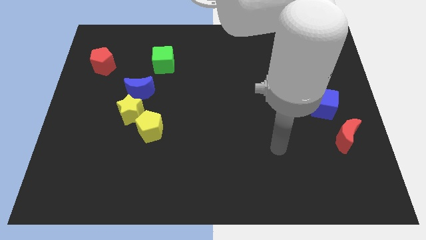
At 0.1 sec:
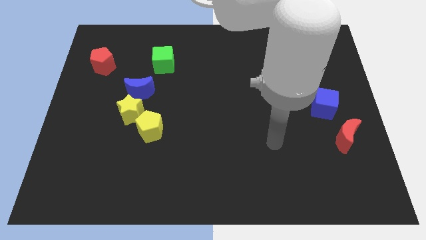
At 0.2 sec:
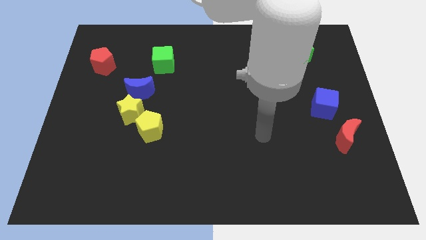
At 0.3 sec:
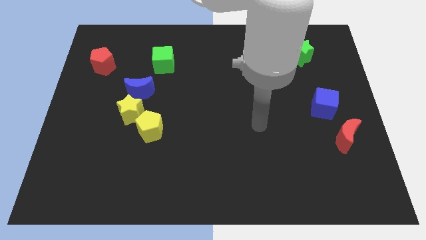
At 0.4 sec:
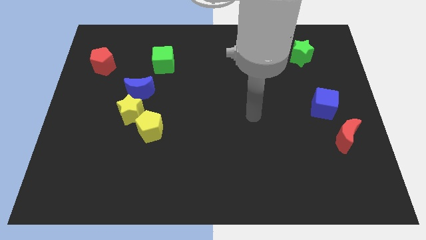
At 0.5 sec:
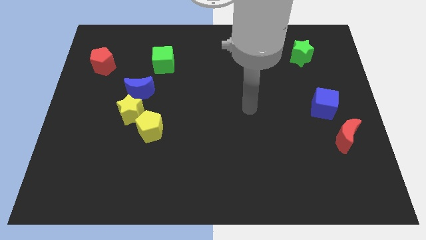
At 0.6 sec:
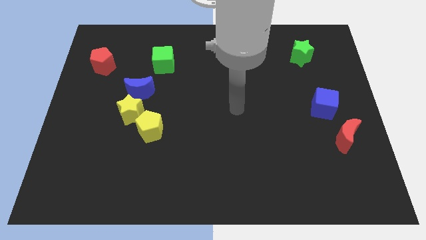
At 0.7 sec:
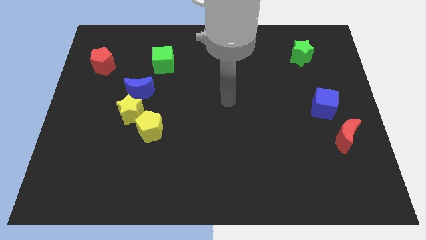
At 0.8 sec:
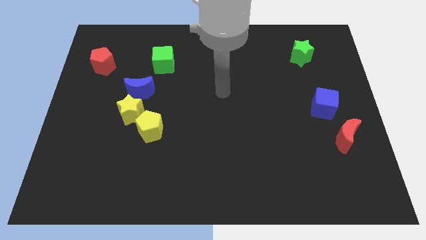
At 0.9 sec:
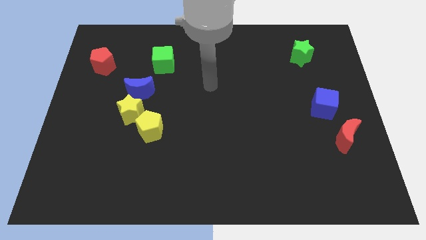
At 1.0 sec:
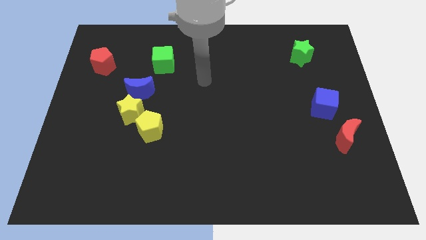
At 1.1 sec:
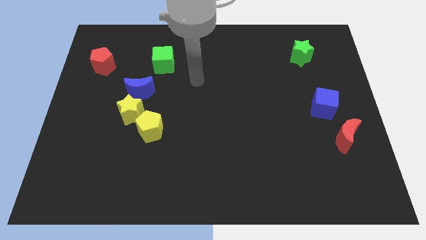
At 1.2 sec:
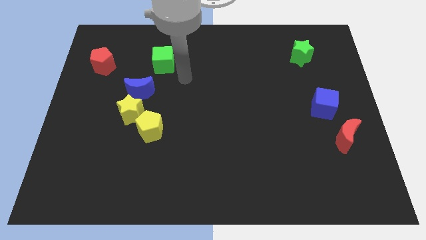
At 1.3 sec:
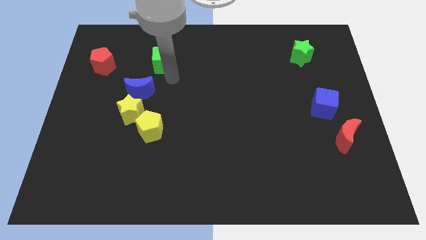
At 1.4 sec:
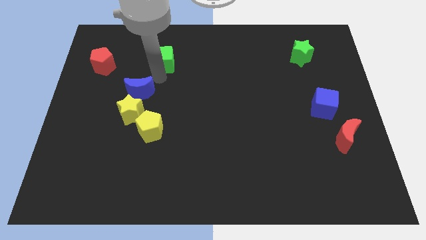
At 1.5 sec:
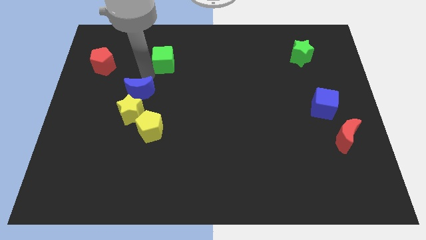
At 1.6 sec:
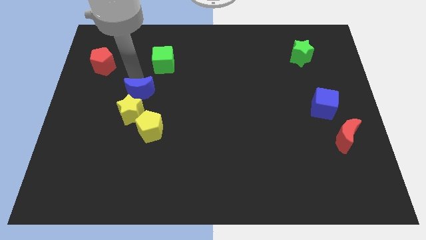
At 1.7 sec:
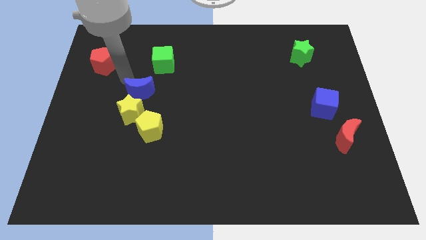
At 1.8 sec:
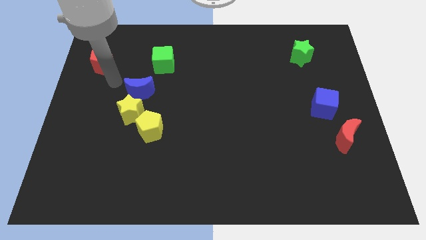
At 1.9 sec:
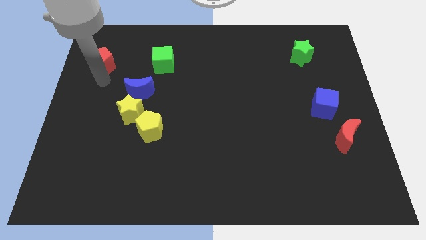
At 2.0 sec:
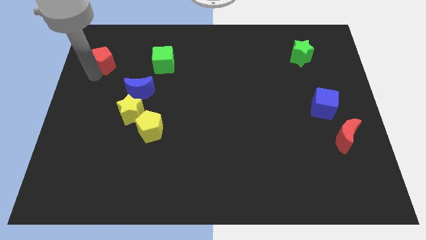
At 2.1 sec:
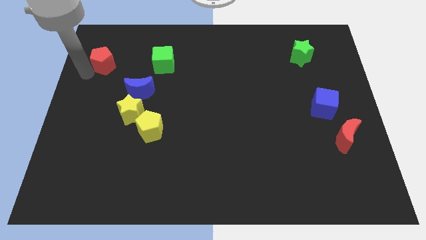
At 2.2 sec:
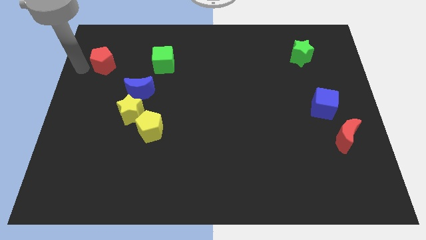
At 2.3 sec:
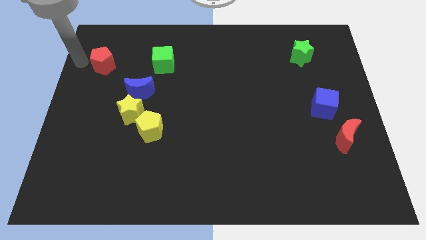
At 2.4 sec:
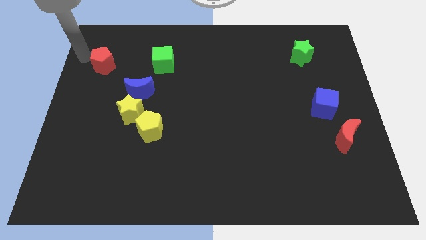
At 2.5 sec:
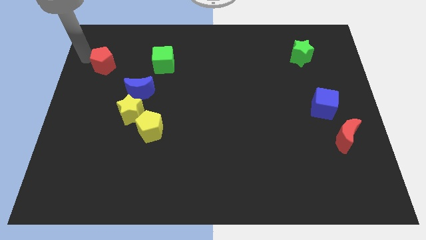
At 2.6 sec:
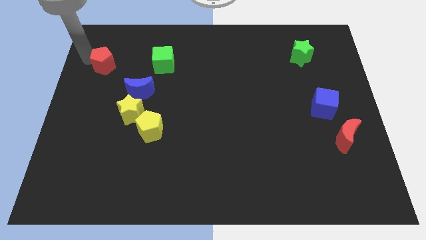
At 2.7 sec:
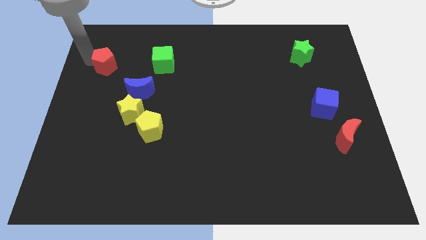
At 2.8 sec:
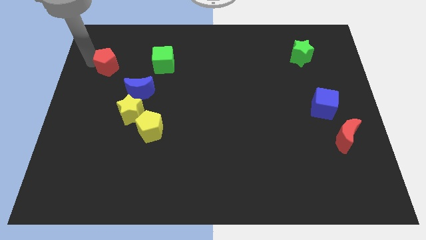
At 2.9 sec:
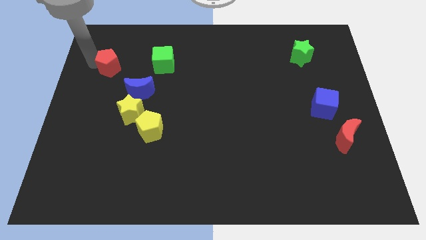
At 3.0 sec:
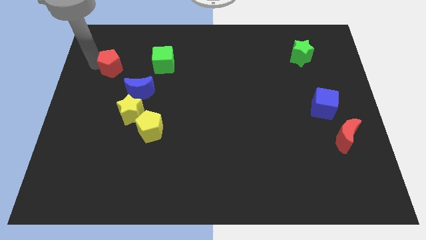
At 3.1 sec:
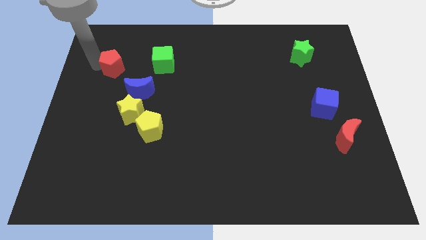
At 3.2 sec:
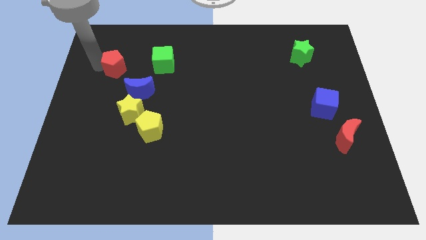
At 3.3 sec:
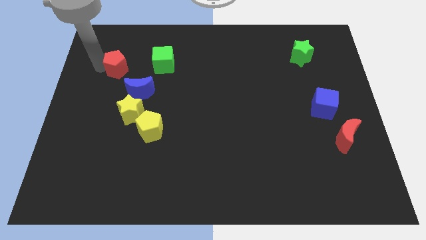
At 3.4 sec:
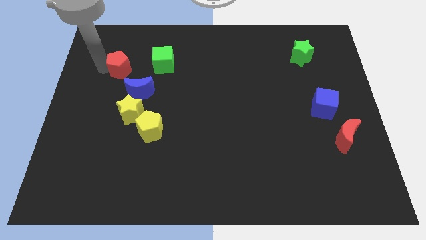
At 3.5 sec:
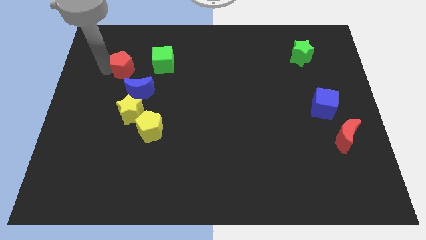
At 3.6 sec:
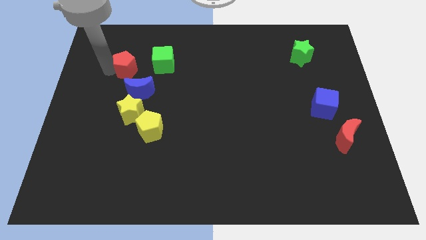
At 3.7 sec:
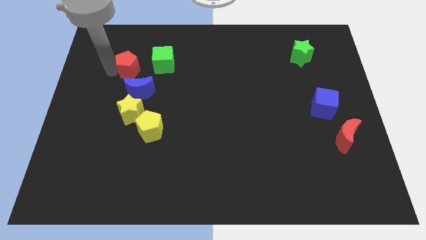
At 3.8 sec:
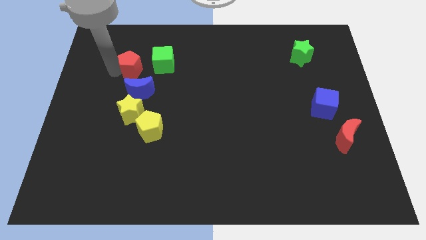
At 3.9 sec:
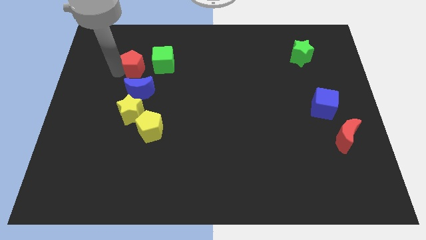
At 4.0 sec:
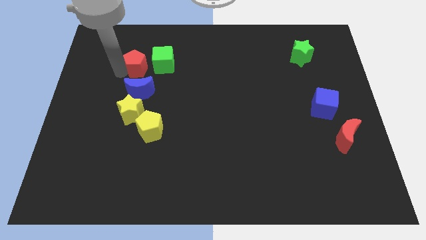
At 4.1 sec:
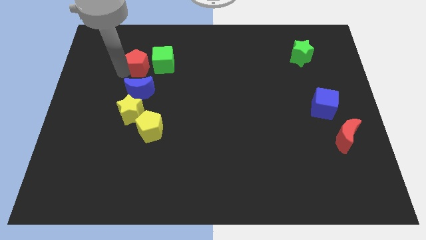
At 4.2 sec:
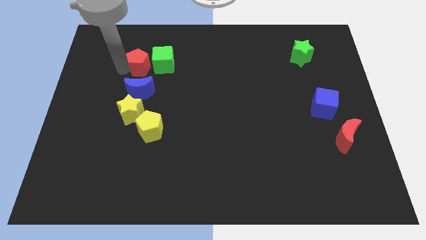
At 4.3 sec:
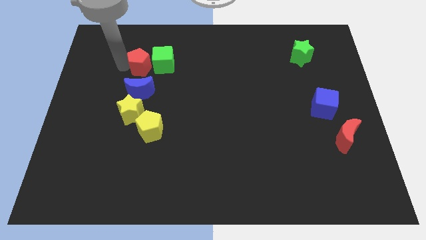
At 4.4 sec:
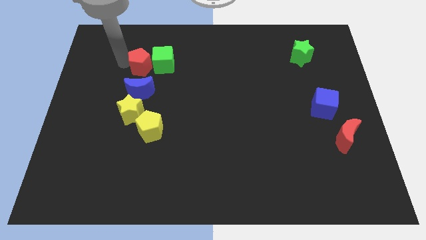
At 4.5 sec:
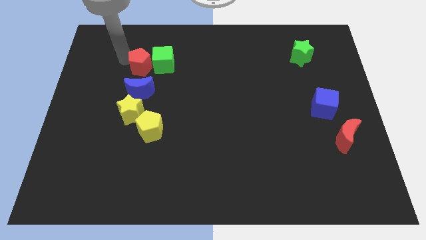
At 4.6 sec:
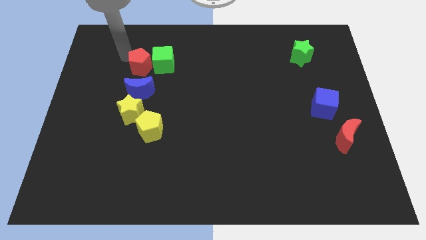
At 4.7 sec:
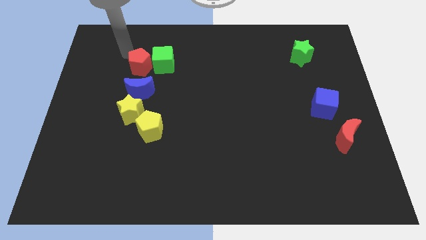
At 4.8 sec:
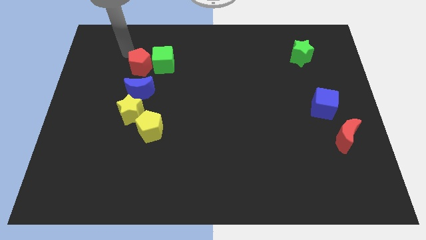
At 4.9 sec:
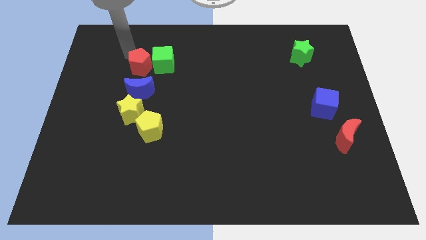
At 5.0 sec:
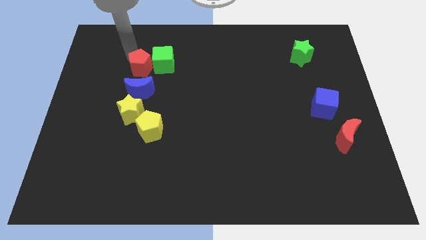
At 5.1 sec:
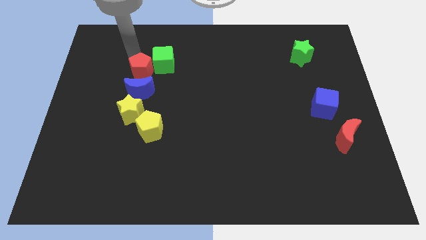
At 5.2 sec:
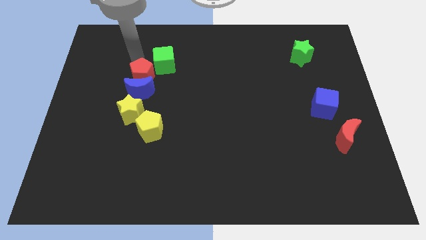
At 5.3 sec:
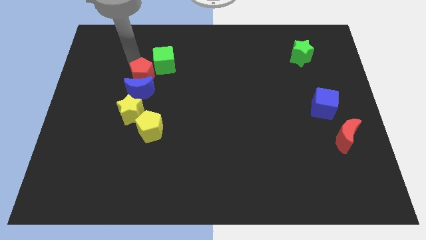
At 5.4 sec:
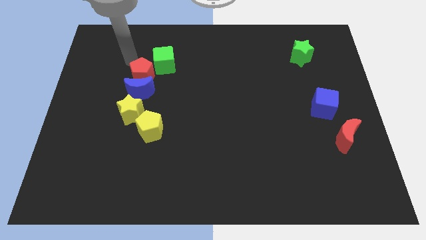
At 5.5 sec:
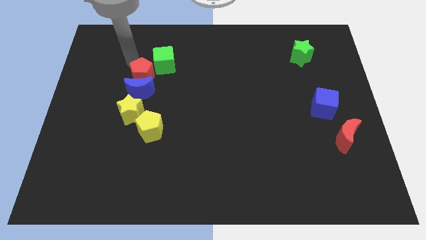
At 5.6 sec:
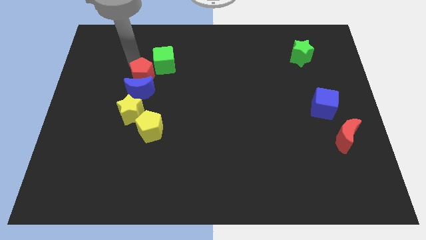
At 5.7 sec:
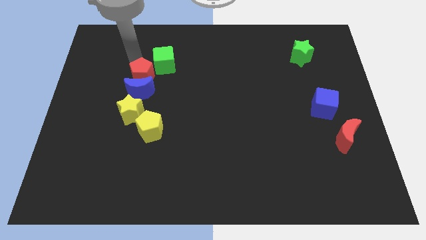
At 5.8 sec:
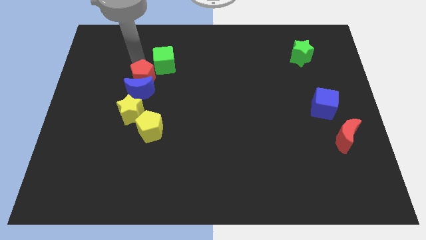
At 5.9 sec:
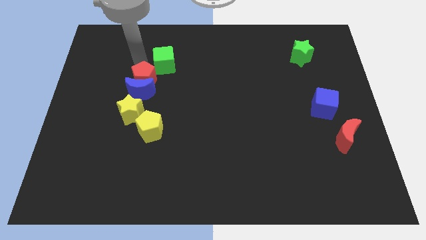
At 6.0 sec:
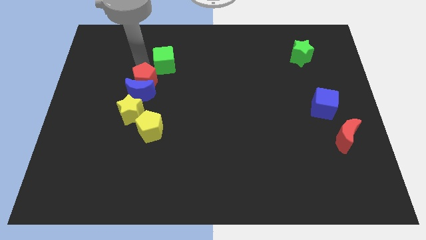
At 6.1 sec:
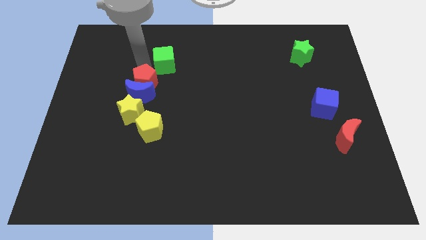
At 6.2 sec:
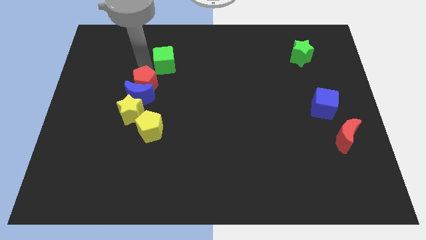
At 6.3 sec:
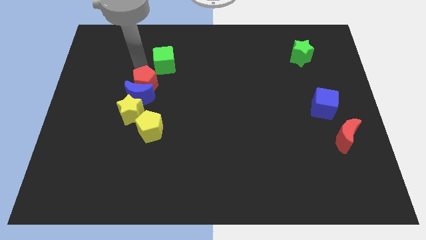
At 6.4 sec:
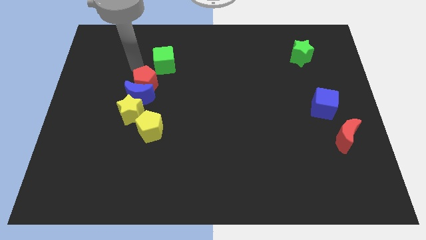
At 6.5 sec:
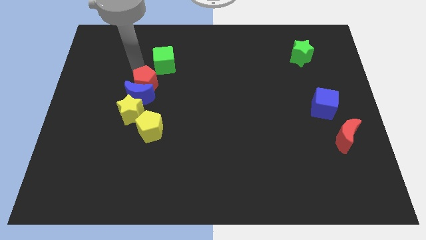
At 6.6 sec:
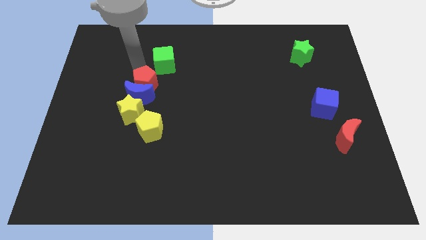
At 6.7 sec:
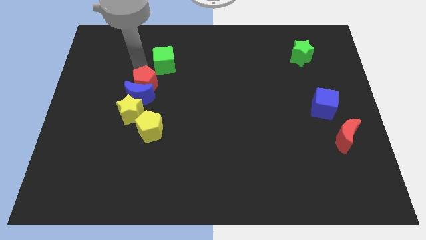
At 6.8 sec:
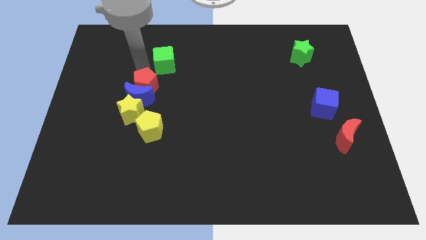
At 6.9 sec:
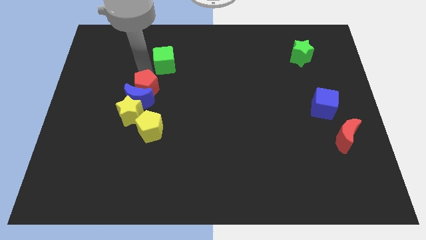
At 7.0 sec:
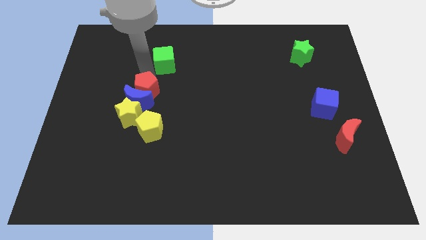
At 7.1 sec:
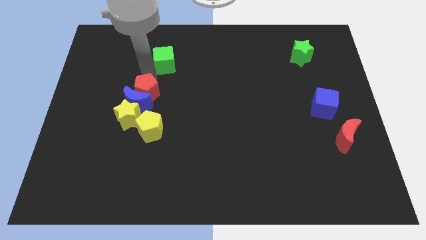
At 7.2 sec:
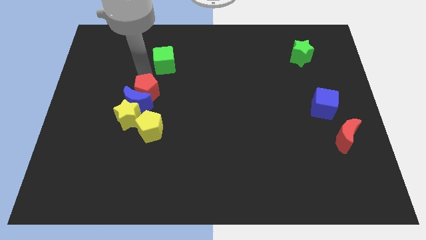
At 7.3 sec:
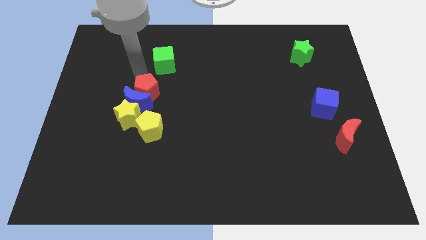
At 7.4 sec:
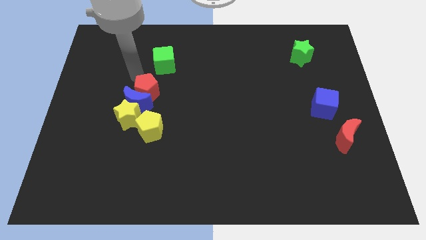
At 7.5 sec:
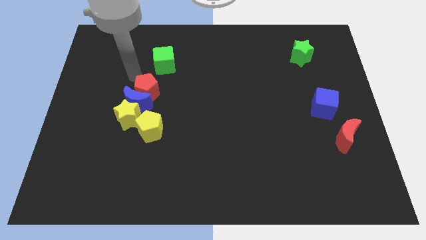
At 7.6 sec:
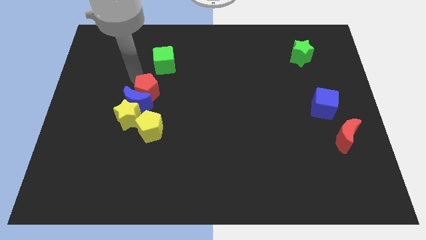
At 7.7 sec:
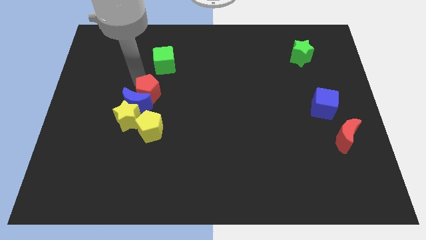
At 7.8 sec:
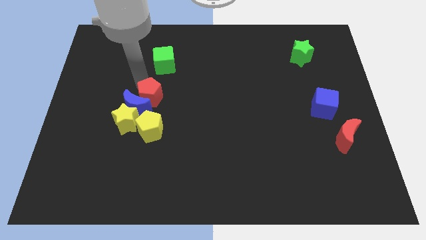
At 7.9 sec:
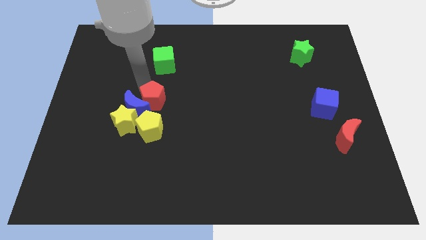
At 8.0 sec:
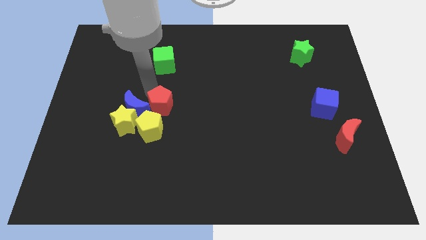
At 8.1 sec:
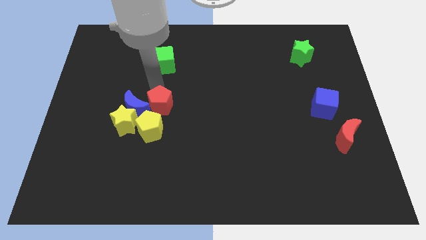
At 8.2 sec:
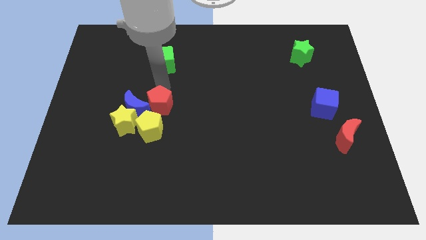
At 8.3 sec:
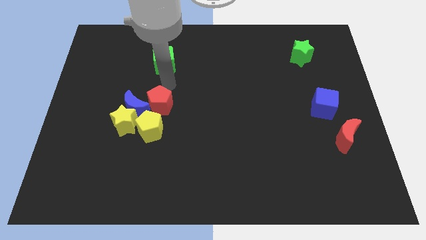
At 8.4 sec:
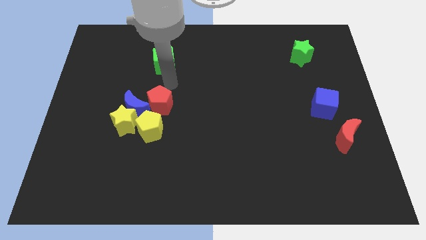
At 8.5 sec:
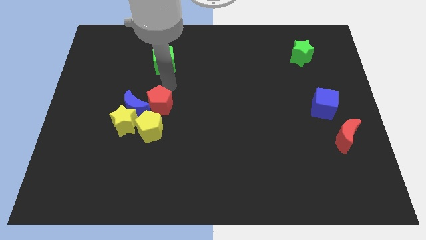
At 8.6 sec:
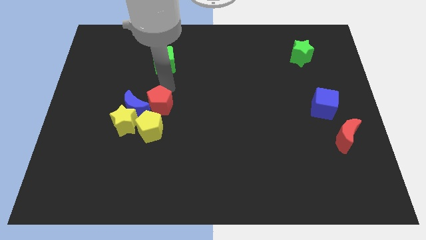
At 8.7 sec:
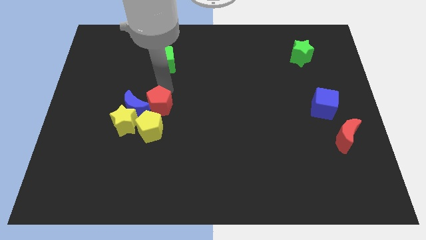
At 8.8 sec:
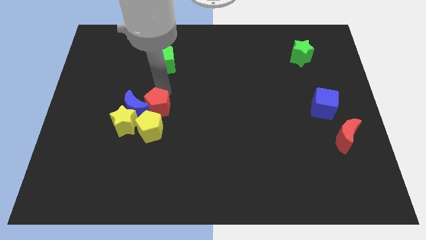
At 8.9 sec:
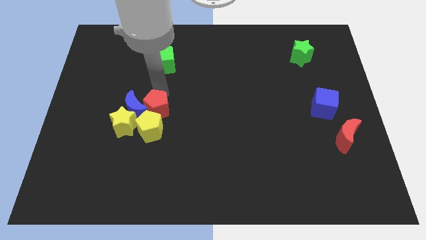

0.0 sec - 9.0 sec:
push the red pentagon towards the yellow pentagon
